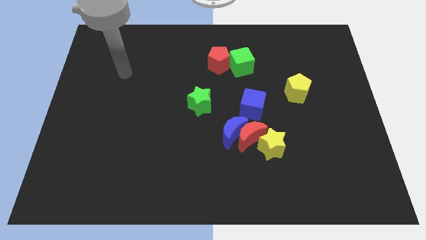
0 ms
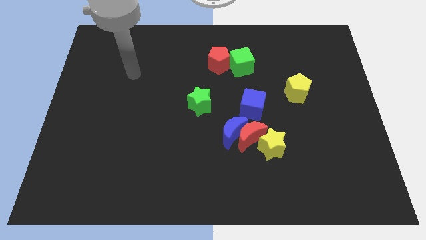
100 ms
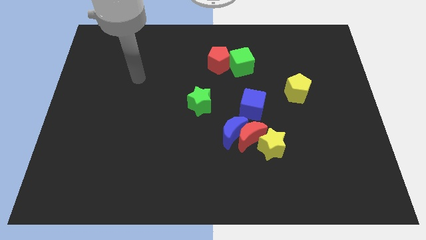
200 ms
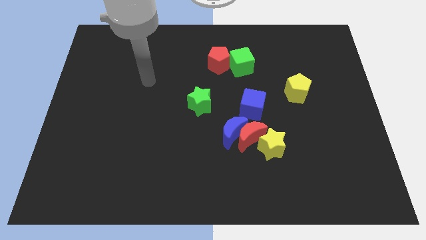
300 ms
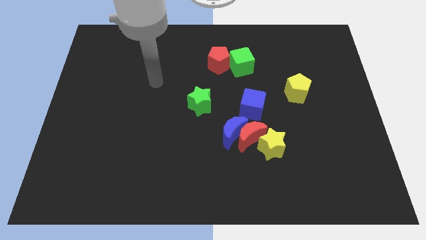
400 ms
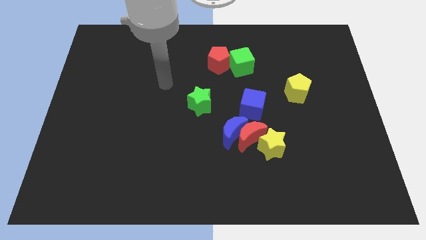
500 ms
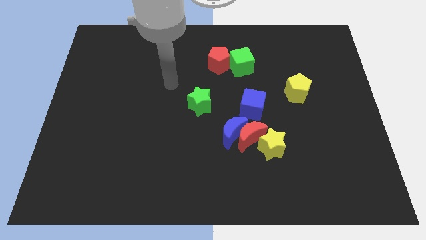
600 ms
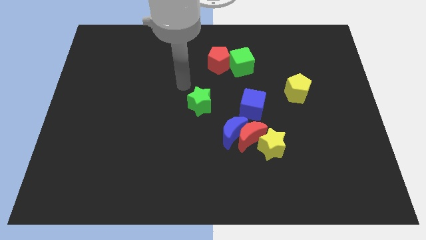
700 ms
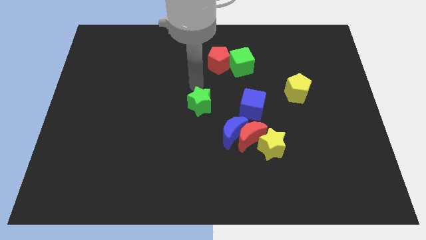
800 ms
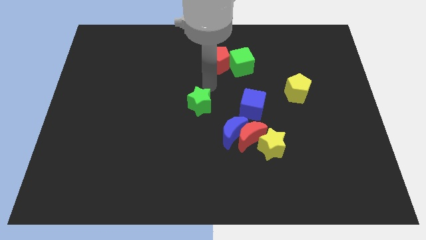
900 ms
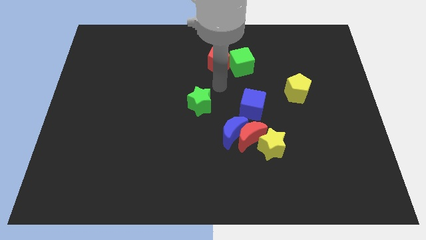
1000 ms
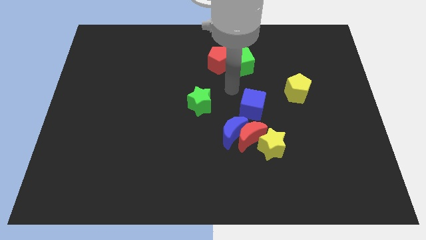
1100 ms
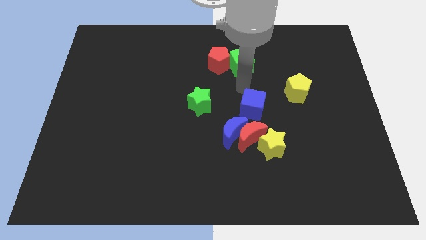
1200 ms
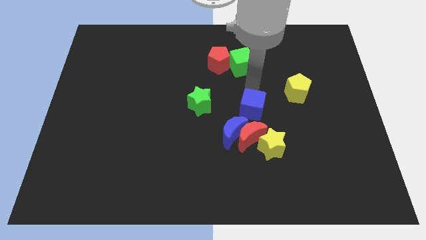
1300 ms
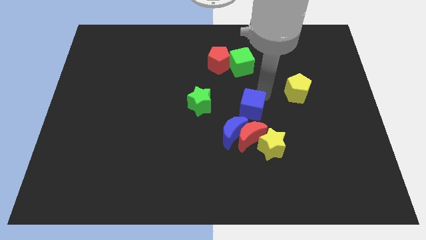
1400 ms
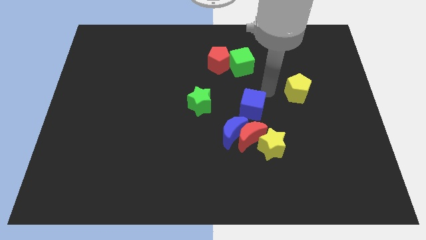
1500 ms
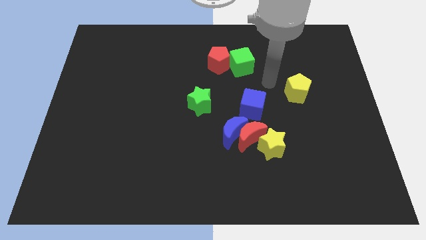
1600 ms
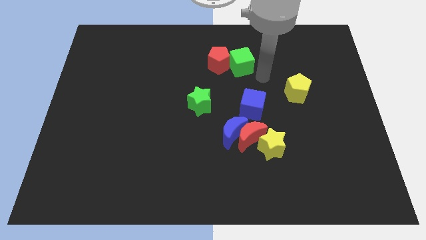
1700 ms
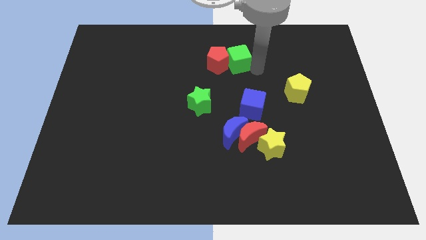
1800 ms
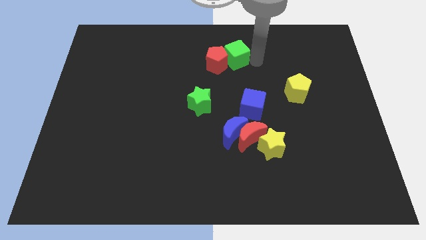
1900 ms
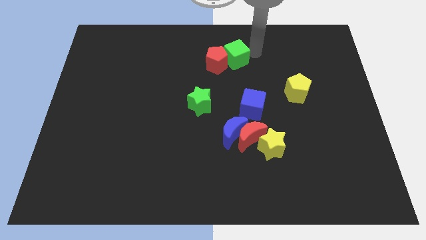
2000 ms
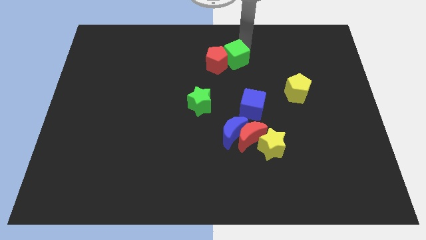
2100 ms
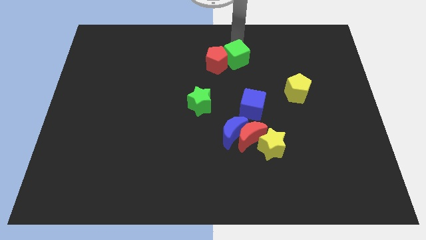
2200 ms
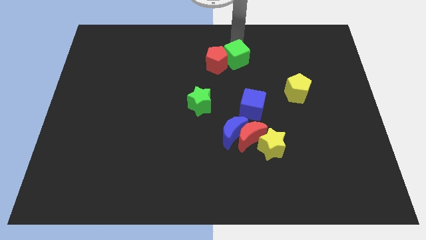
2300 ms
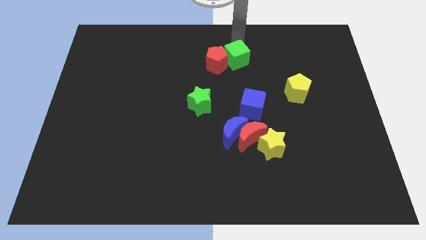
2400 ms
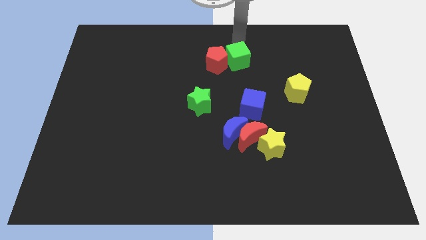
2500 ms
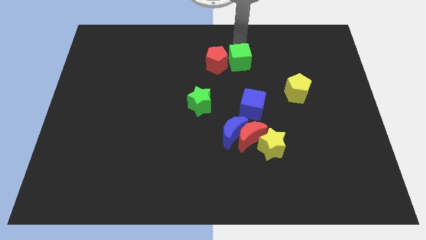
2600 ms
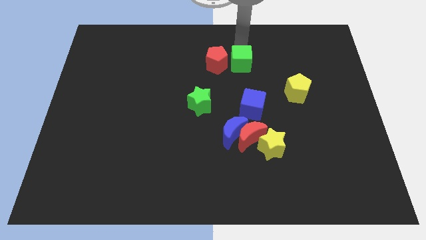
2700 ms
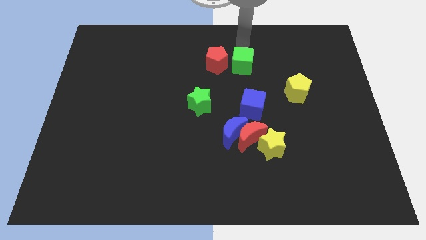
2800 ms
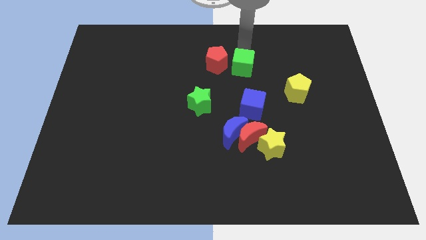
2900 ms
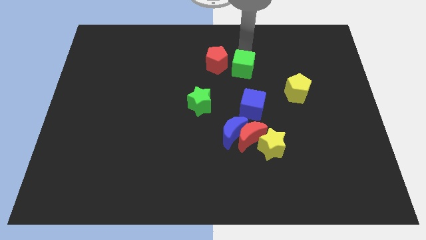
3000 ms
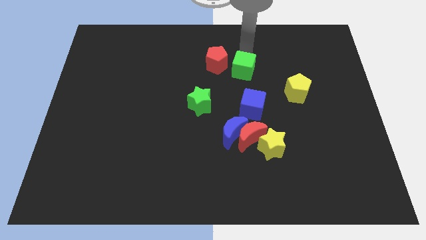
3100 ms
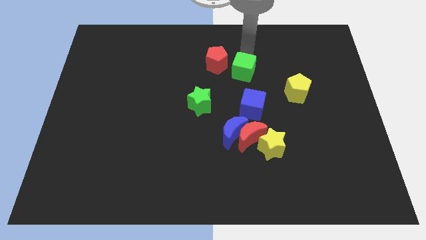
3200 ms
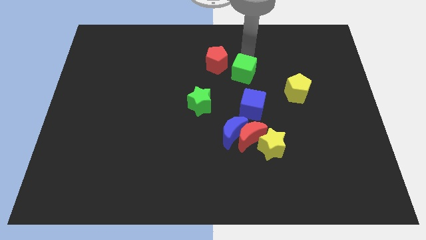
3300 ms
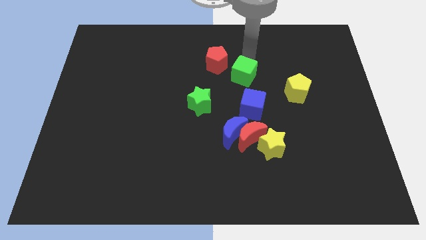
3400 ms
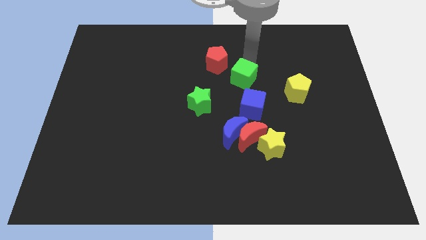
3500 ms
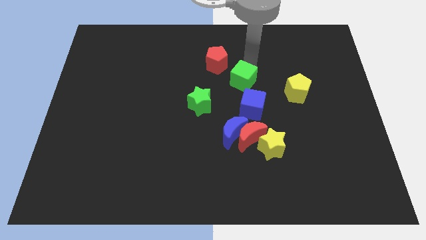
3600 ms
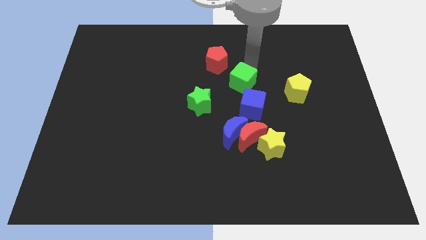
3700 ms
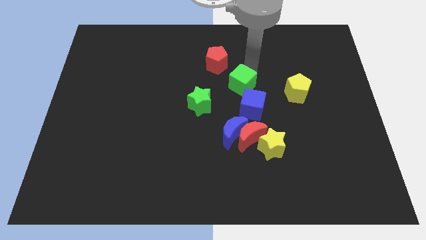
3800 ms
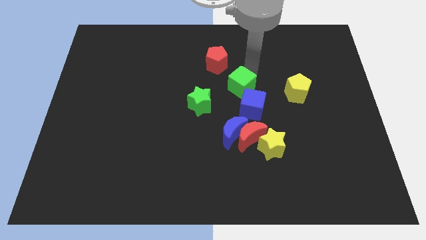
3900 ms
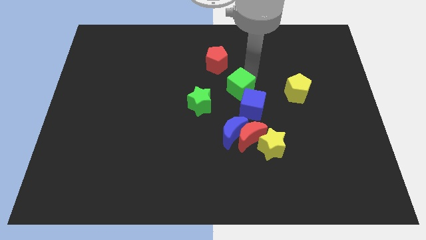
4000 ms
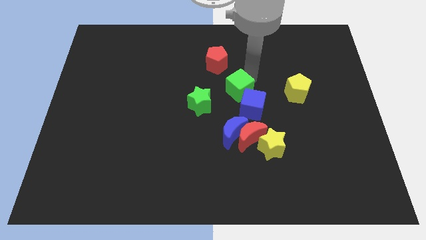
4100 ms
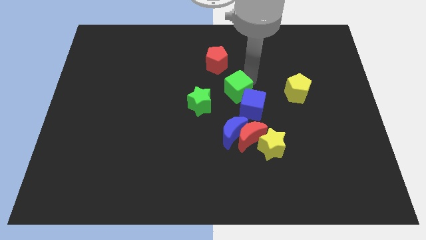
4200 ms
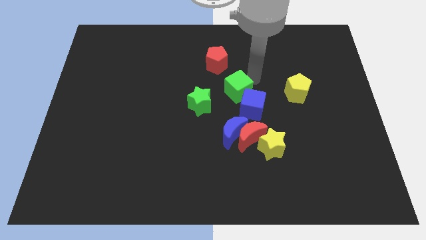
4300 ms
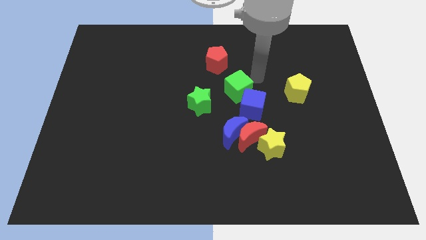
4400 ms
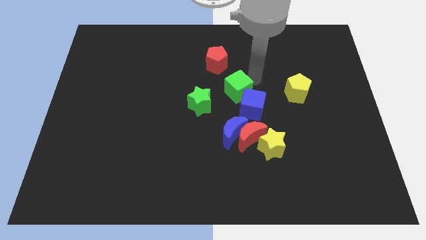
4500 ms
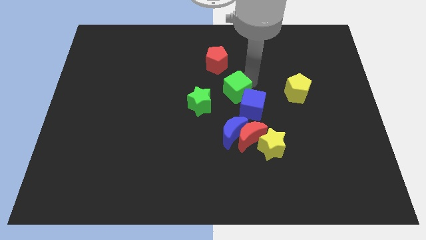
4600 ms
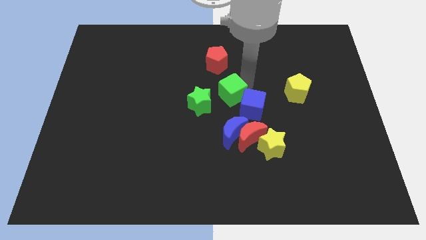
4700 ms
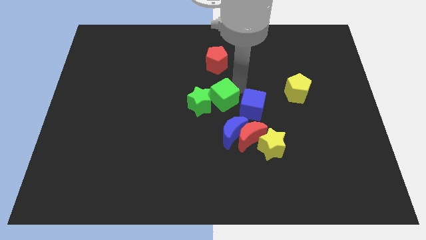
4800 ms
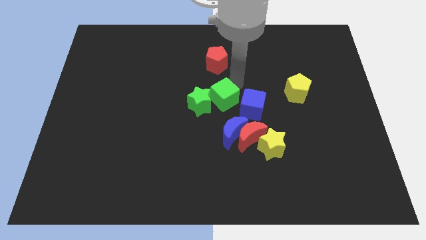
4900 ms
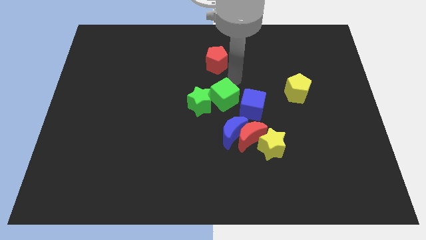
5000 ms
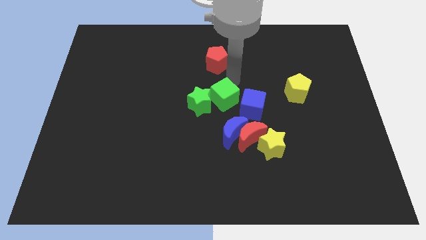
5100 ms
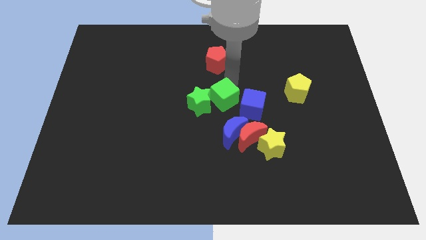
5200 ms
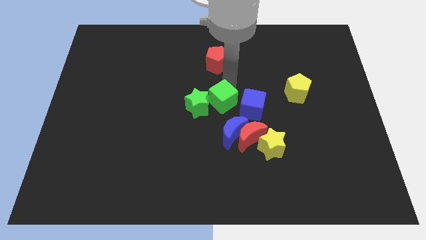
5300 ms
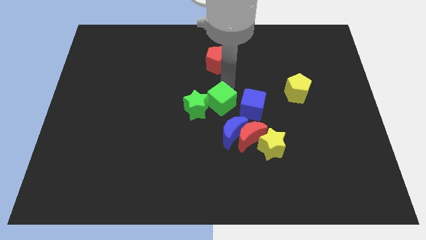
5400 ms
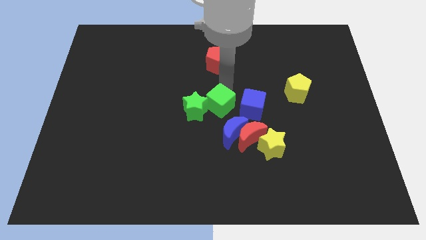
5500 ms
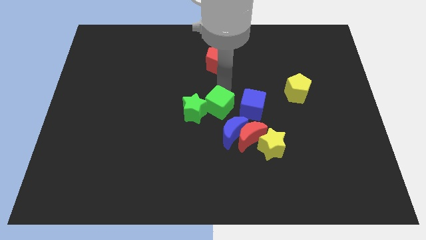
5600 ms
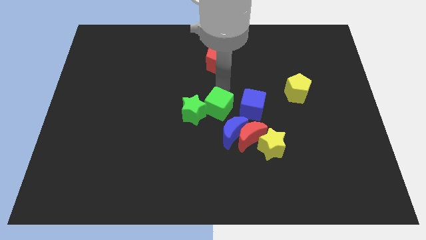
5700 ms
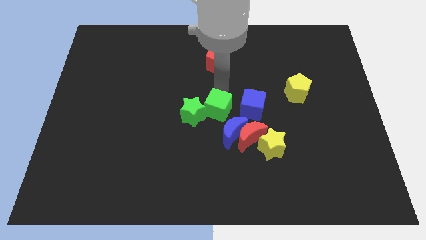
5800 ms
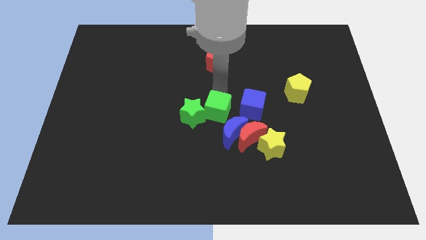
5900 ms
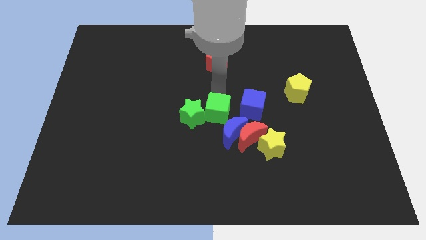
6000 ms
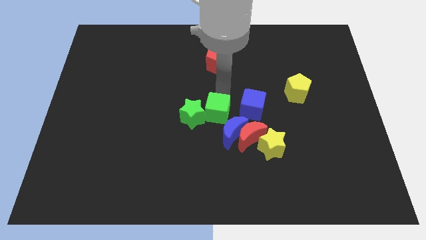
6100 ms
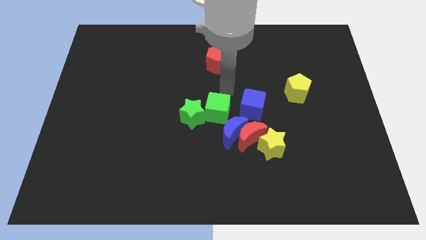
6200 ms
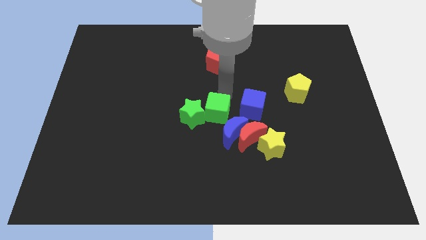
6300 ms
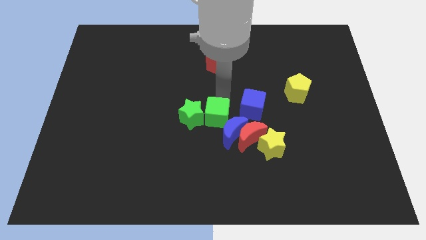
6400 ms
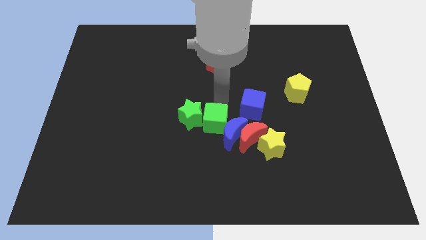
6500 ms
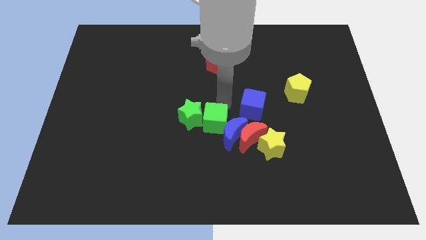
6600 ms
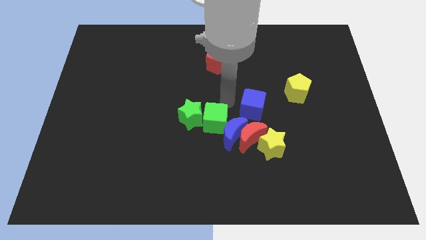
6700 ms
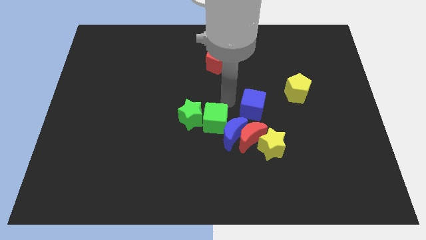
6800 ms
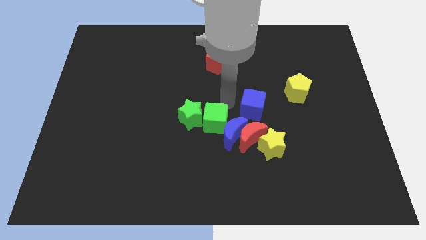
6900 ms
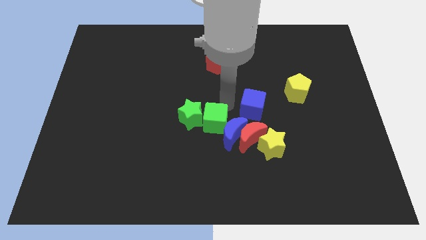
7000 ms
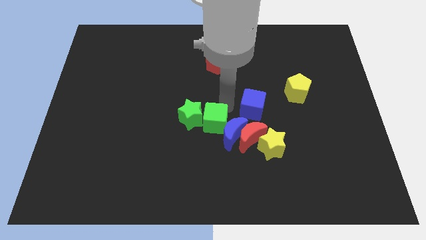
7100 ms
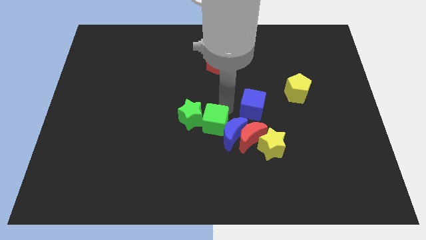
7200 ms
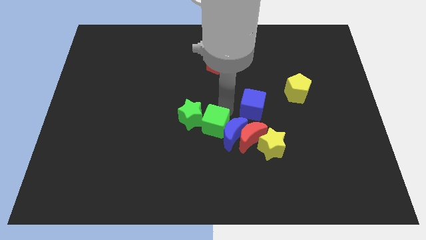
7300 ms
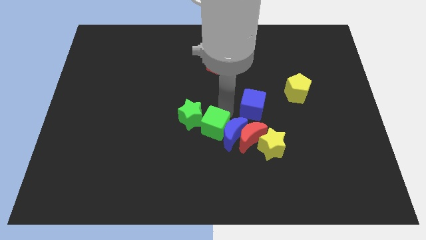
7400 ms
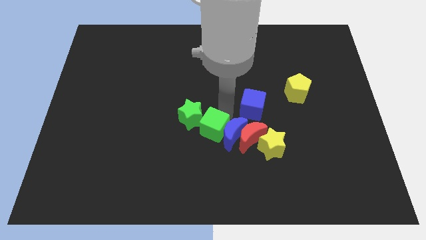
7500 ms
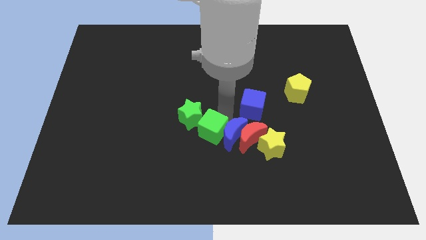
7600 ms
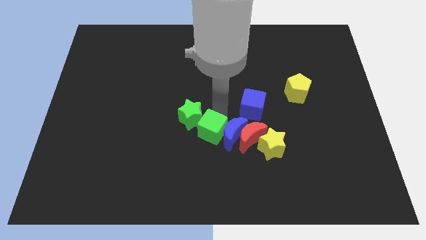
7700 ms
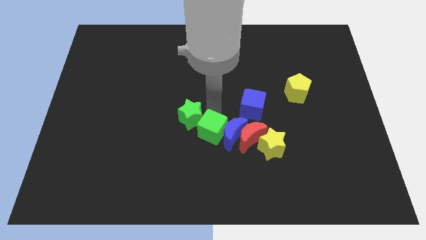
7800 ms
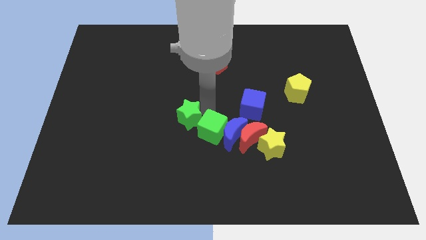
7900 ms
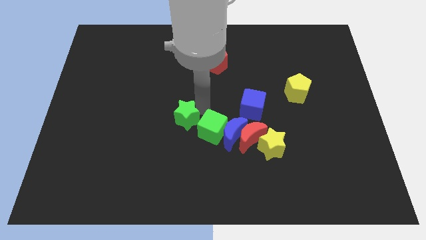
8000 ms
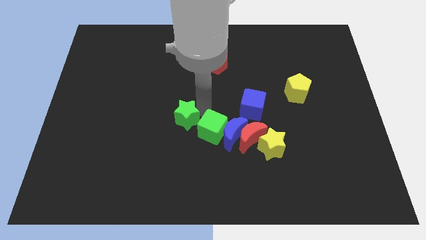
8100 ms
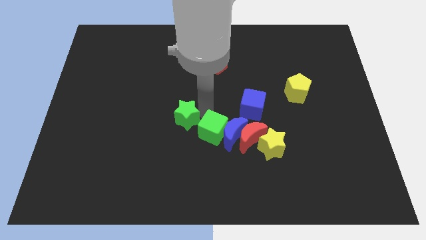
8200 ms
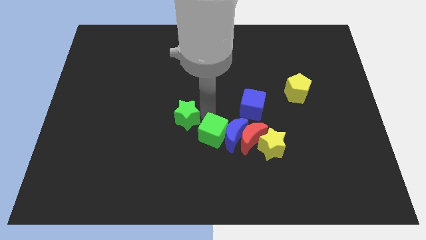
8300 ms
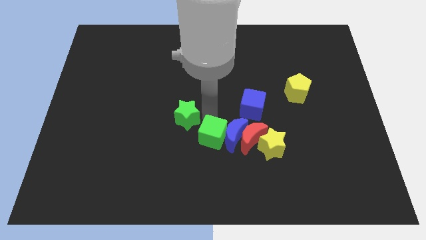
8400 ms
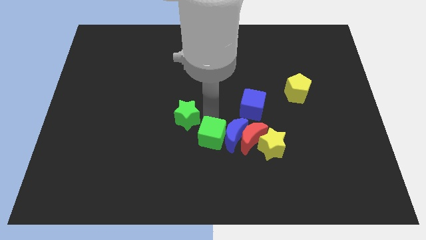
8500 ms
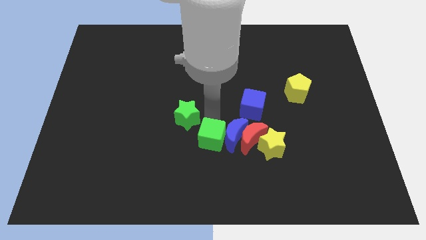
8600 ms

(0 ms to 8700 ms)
push the green cube downwards
